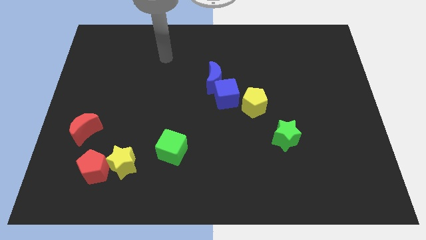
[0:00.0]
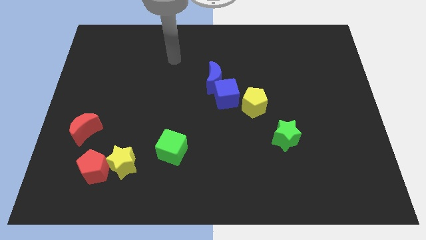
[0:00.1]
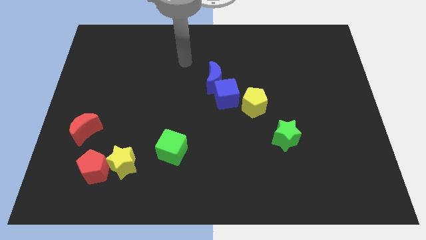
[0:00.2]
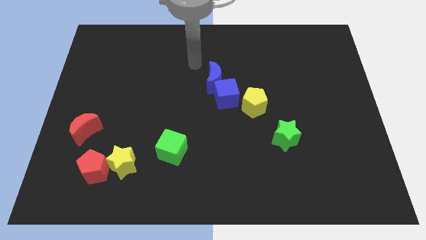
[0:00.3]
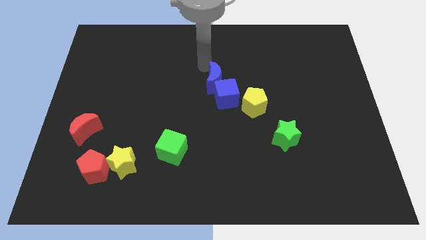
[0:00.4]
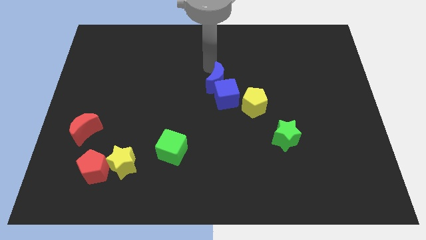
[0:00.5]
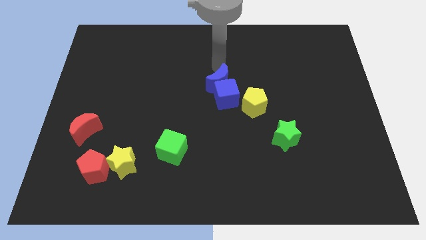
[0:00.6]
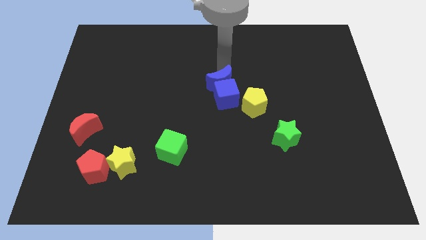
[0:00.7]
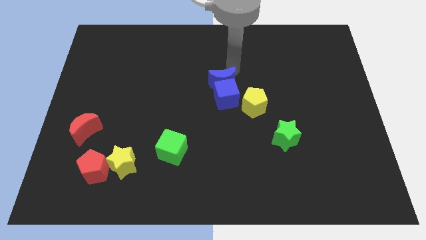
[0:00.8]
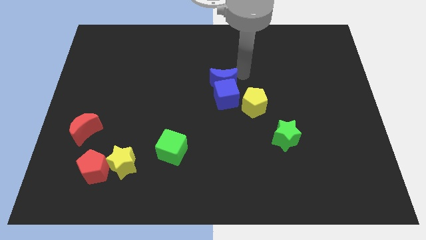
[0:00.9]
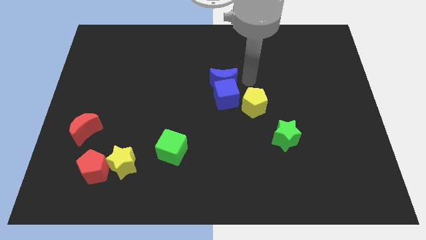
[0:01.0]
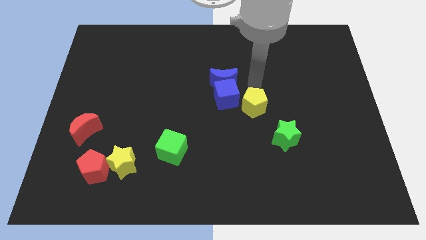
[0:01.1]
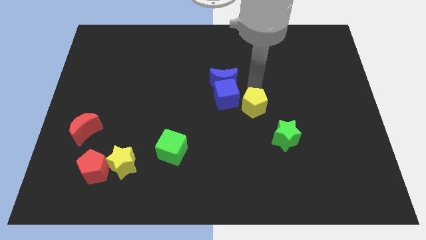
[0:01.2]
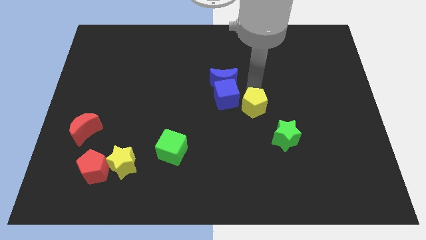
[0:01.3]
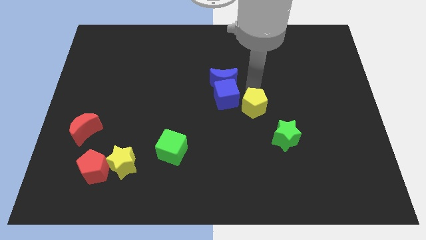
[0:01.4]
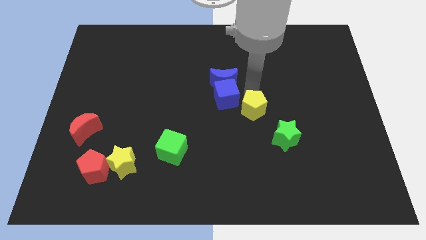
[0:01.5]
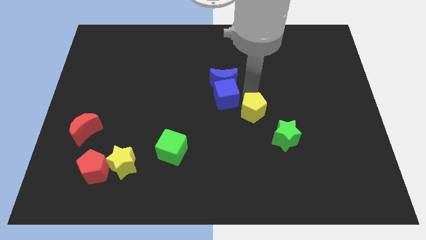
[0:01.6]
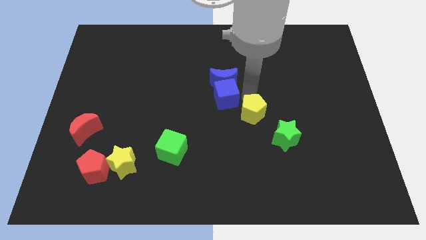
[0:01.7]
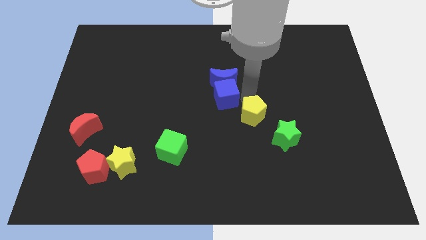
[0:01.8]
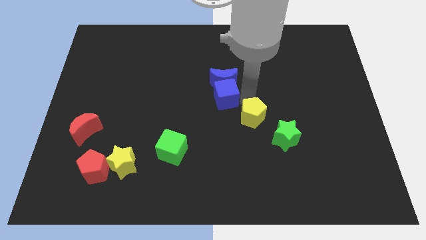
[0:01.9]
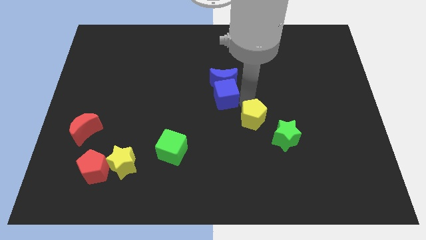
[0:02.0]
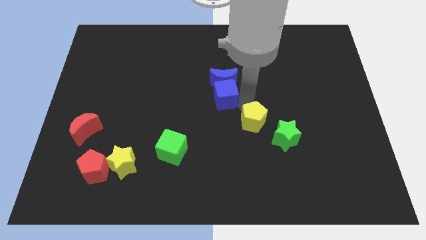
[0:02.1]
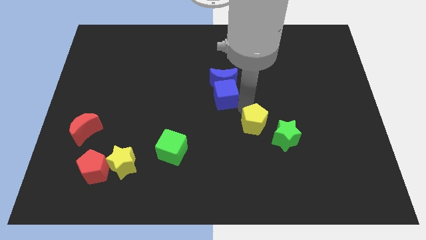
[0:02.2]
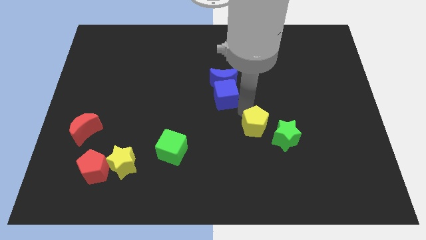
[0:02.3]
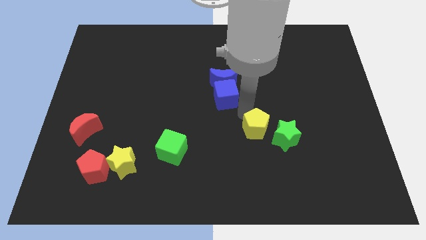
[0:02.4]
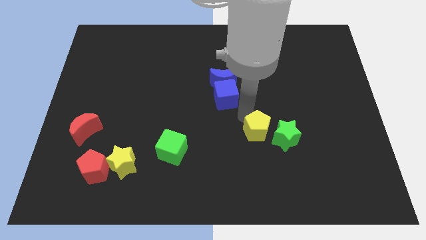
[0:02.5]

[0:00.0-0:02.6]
slide the yellow pentagon down slightly

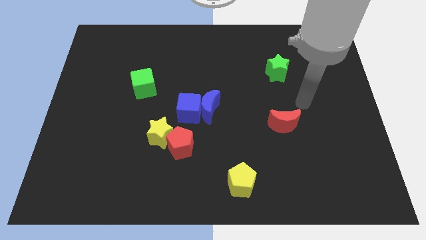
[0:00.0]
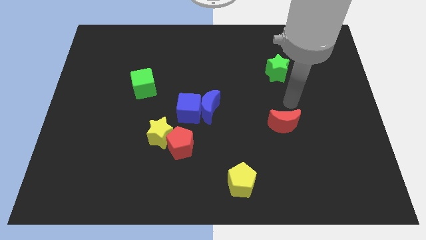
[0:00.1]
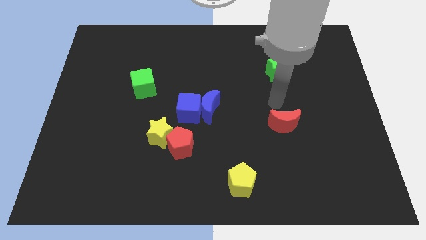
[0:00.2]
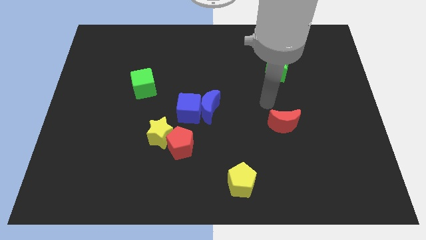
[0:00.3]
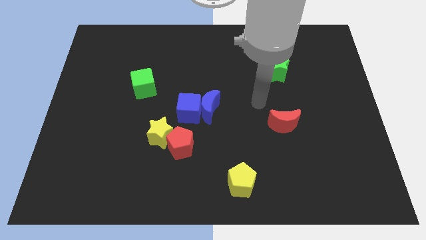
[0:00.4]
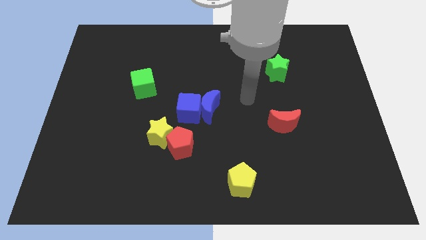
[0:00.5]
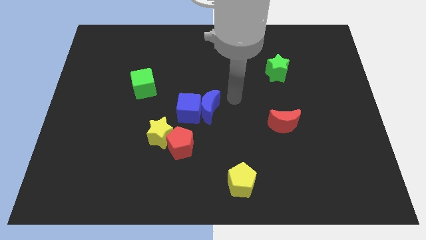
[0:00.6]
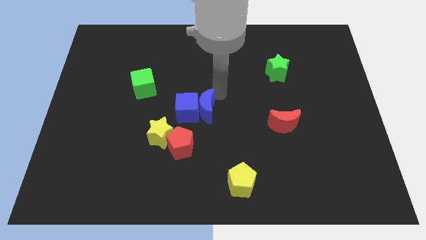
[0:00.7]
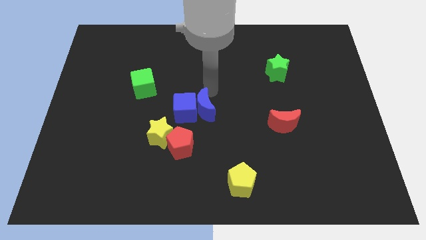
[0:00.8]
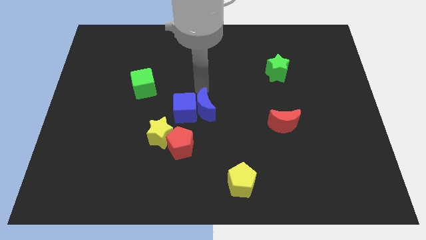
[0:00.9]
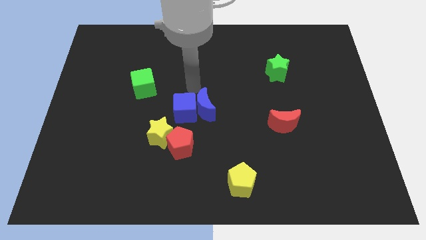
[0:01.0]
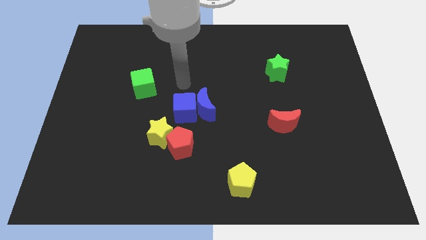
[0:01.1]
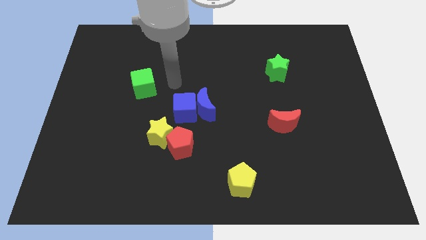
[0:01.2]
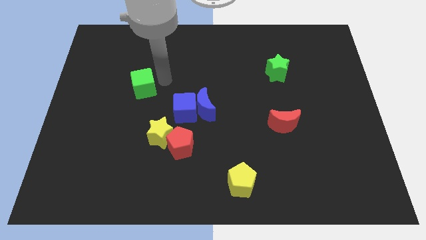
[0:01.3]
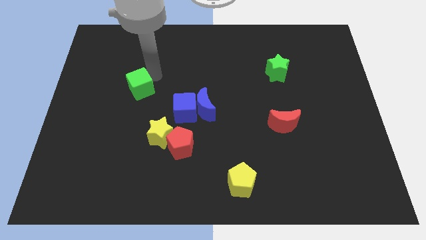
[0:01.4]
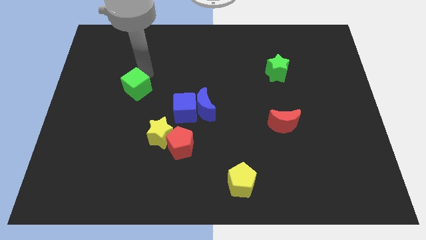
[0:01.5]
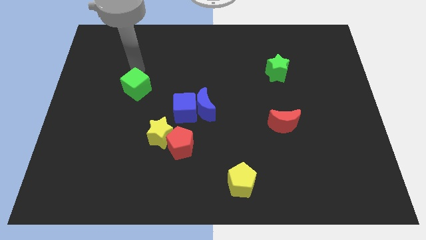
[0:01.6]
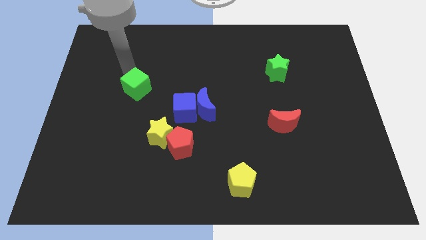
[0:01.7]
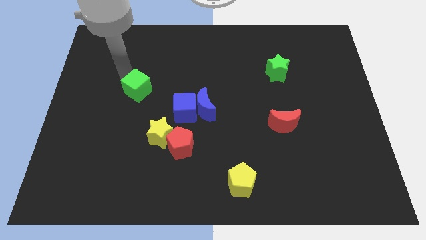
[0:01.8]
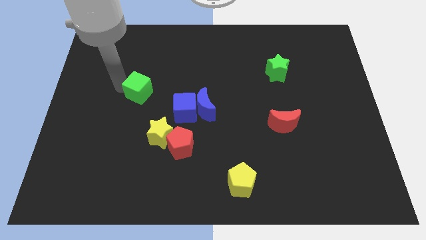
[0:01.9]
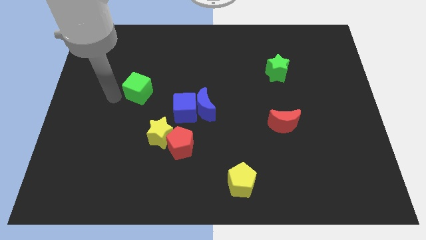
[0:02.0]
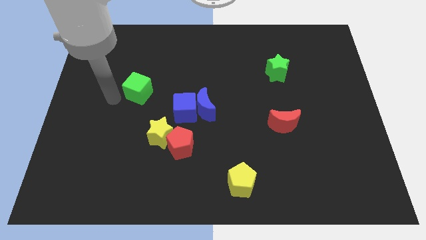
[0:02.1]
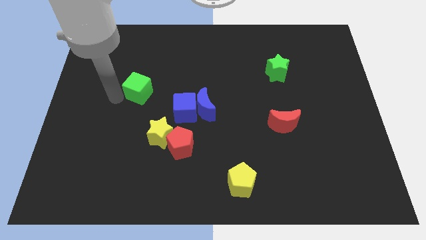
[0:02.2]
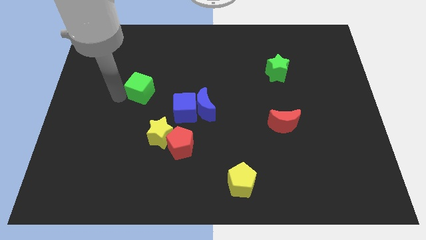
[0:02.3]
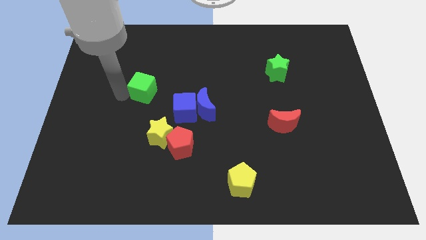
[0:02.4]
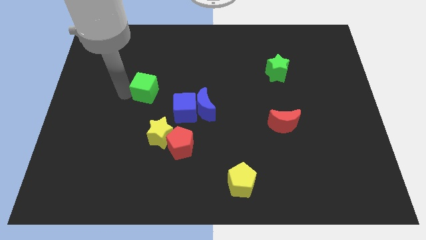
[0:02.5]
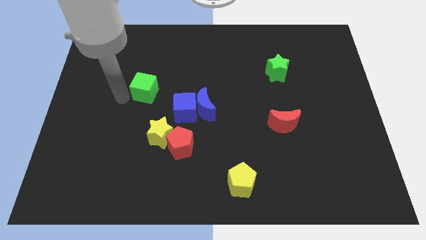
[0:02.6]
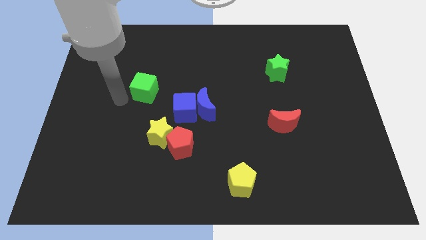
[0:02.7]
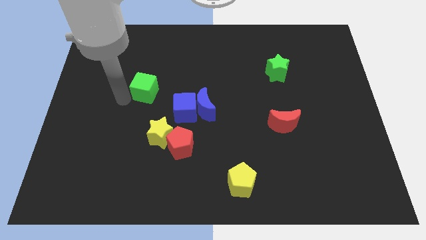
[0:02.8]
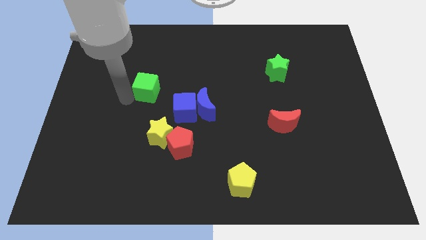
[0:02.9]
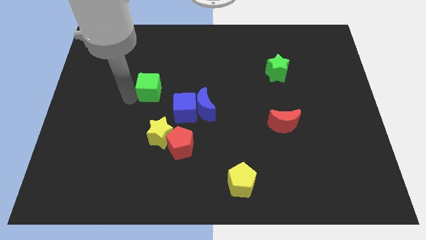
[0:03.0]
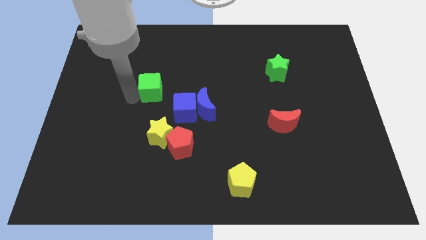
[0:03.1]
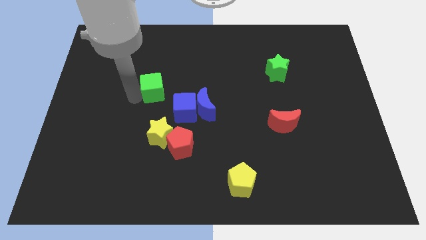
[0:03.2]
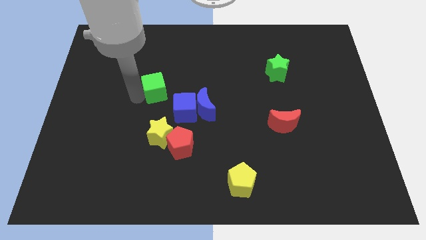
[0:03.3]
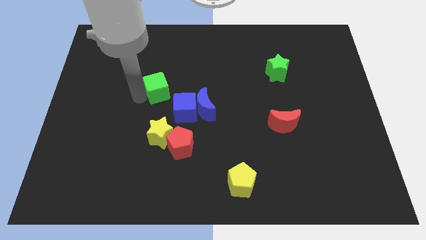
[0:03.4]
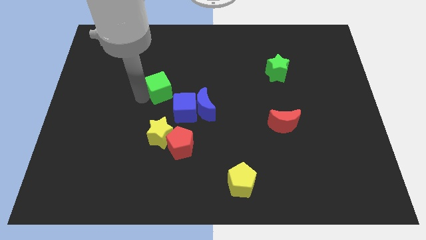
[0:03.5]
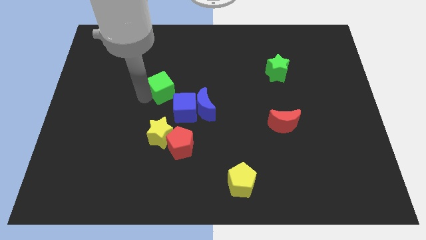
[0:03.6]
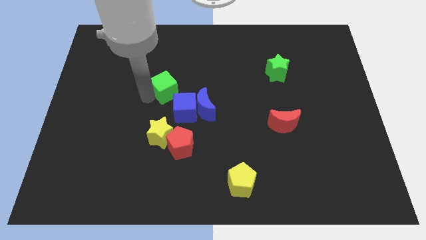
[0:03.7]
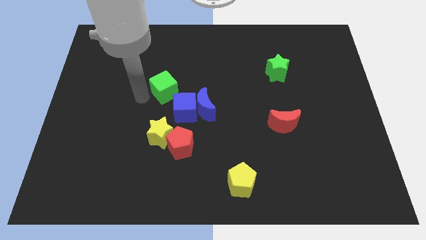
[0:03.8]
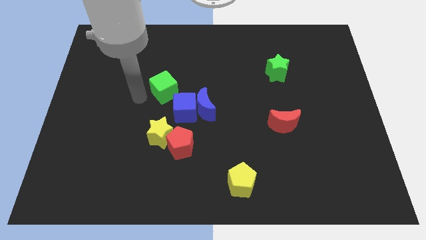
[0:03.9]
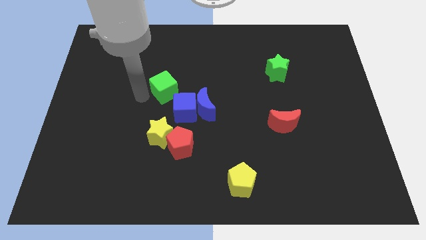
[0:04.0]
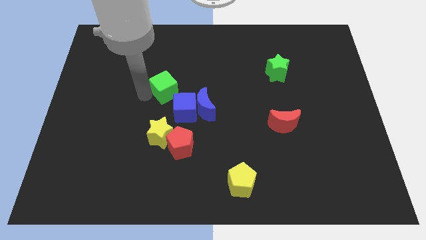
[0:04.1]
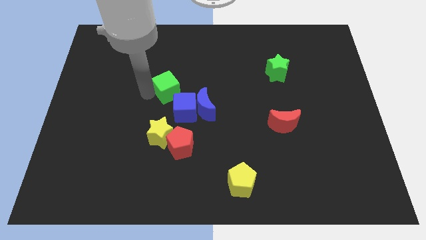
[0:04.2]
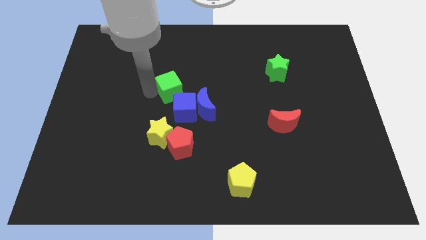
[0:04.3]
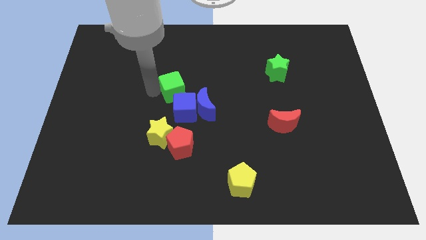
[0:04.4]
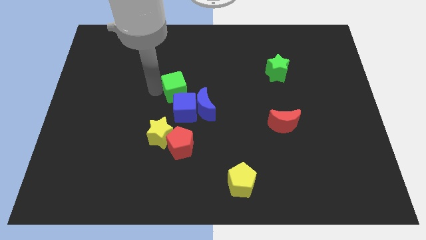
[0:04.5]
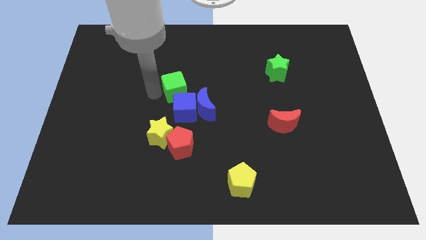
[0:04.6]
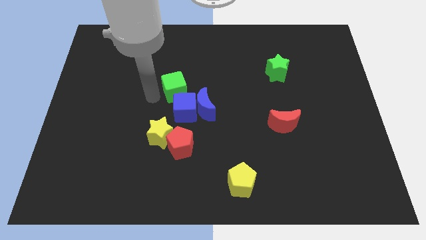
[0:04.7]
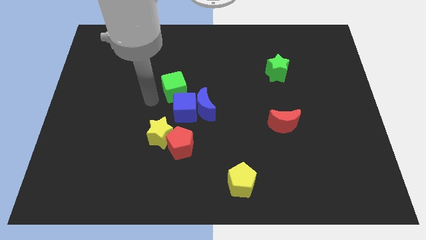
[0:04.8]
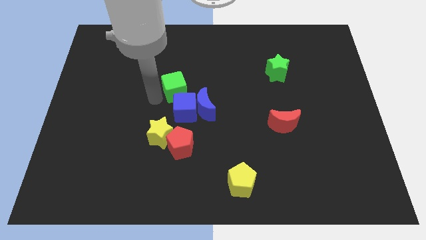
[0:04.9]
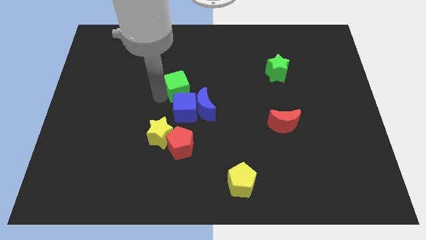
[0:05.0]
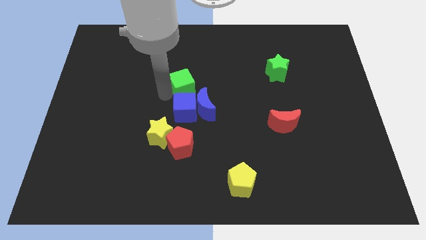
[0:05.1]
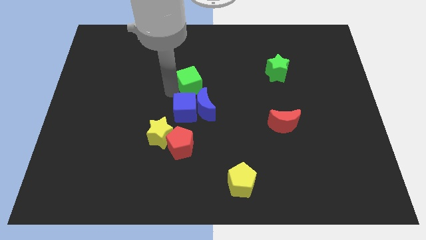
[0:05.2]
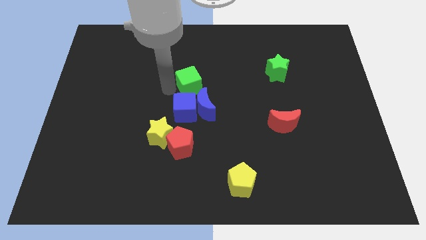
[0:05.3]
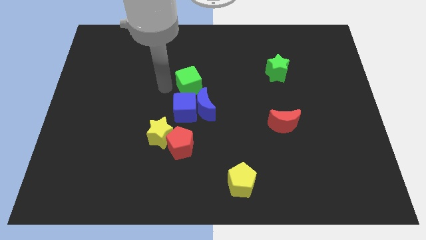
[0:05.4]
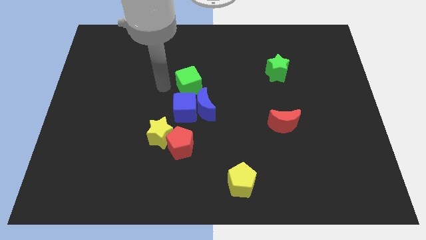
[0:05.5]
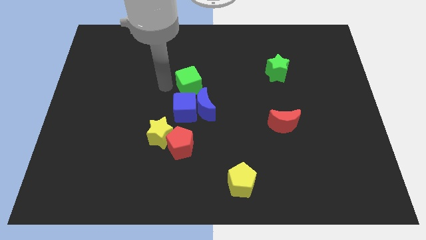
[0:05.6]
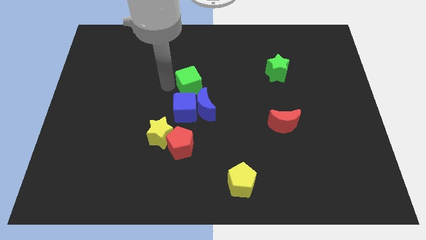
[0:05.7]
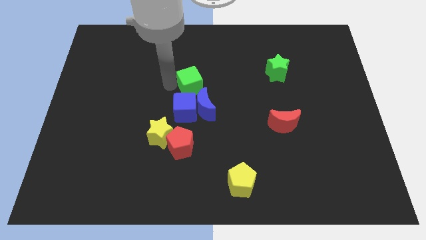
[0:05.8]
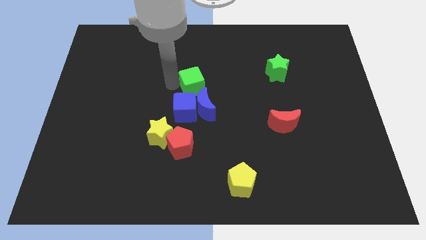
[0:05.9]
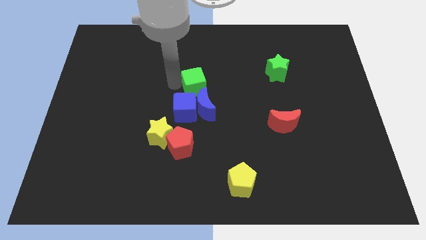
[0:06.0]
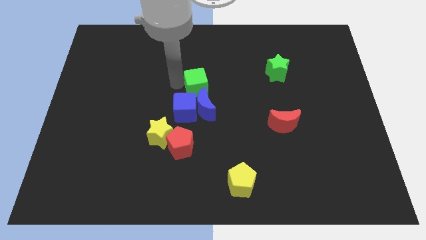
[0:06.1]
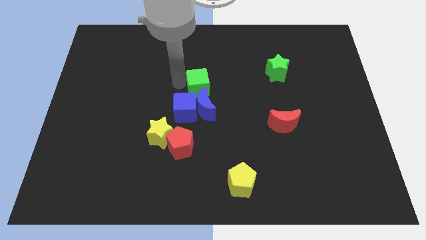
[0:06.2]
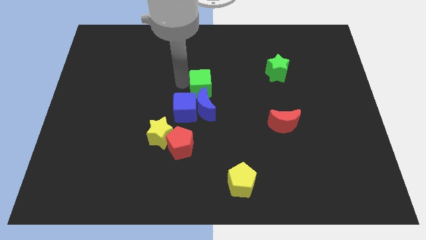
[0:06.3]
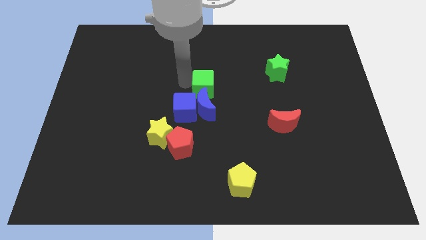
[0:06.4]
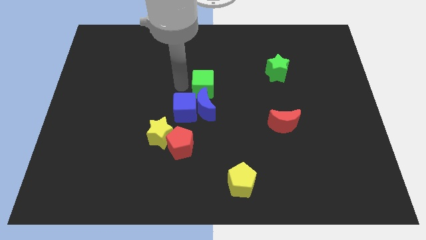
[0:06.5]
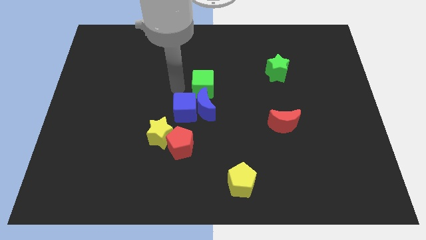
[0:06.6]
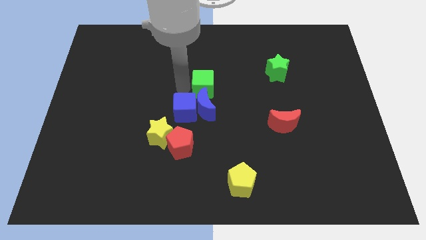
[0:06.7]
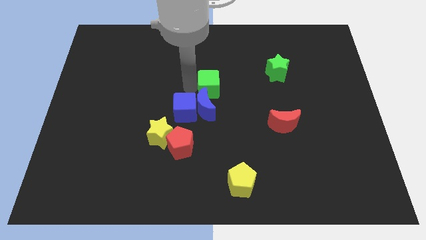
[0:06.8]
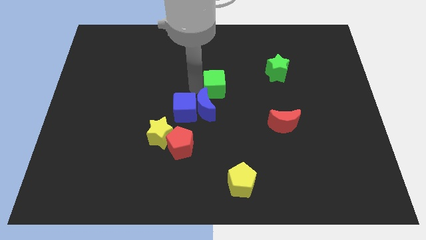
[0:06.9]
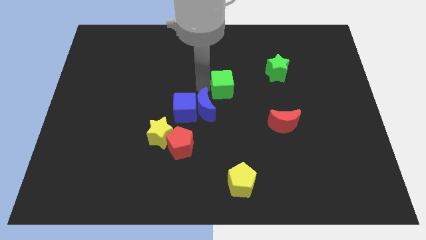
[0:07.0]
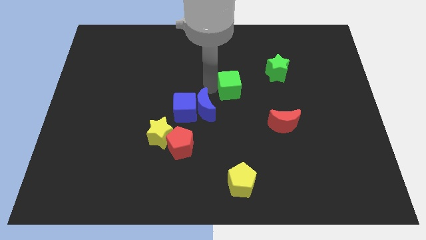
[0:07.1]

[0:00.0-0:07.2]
slide the green cube to the right
